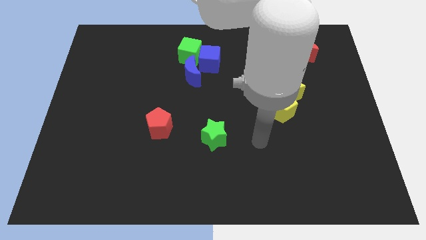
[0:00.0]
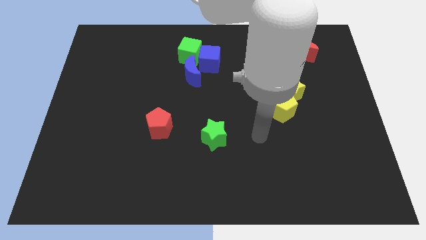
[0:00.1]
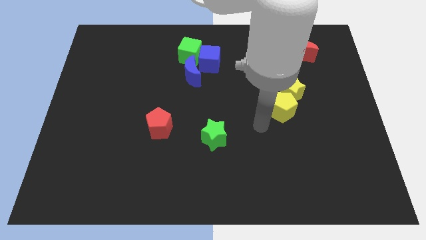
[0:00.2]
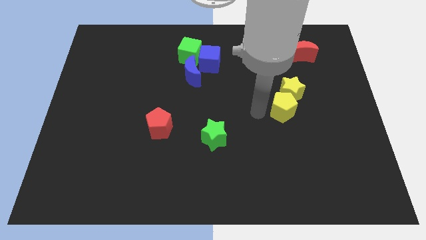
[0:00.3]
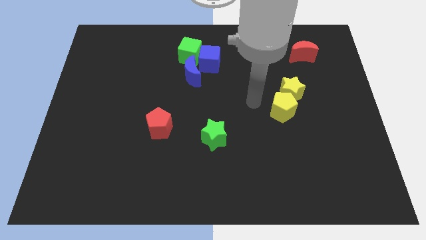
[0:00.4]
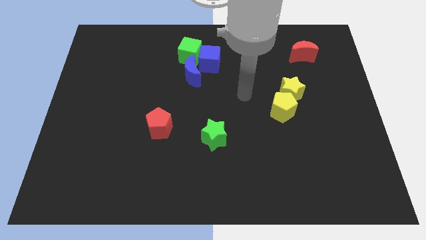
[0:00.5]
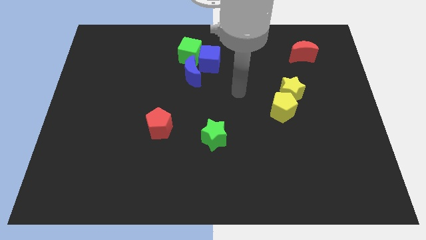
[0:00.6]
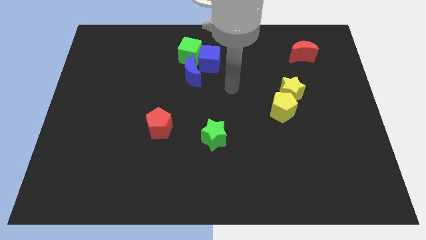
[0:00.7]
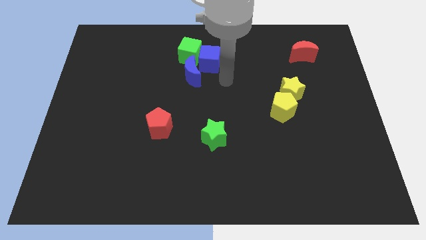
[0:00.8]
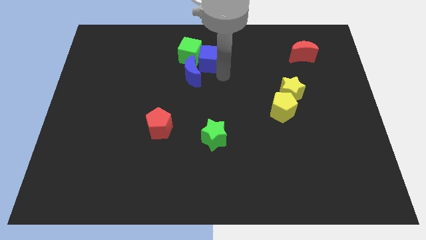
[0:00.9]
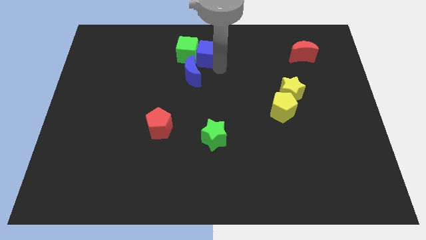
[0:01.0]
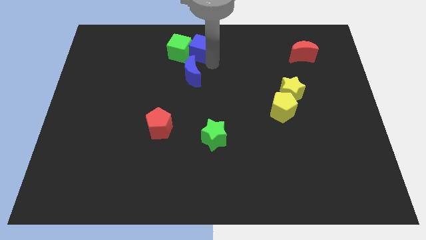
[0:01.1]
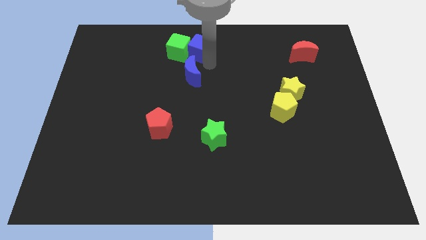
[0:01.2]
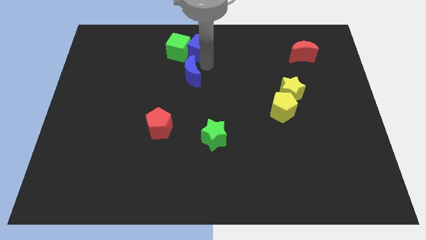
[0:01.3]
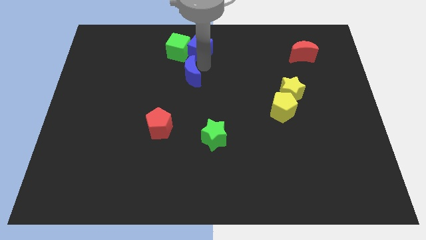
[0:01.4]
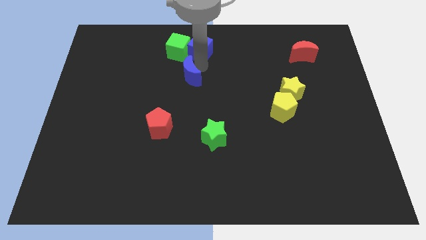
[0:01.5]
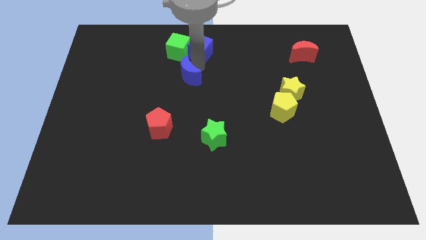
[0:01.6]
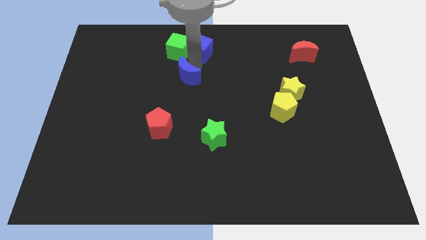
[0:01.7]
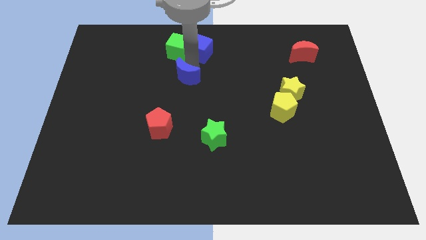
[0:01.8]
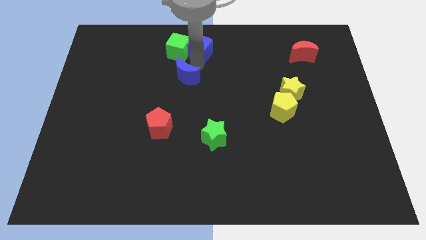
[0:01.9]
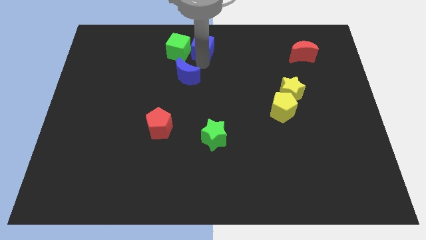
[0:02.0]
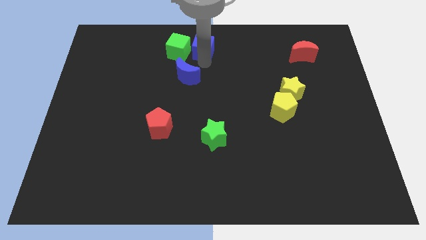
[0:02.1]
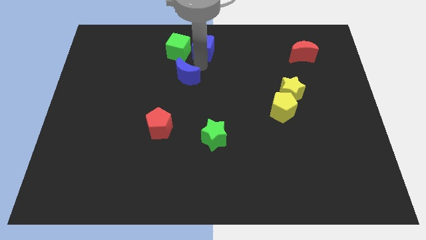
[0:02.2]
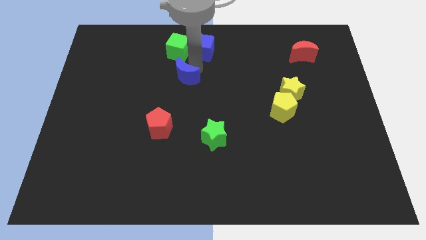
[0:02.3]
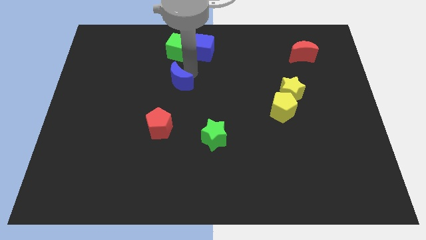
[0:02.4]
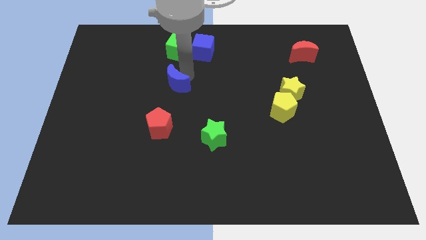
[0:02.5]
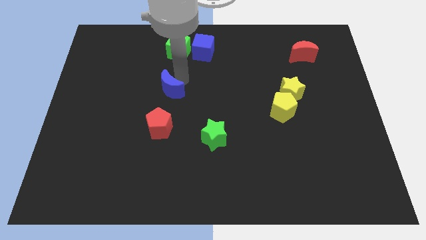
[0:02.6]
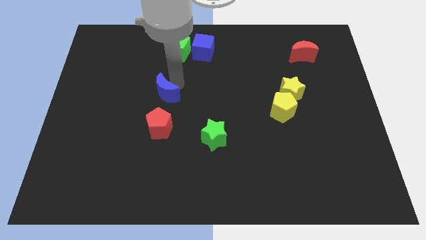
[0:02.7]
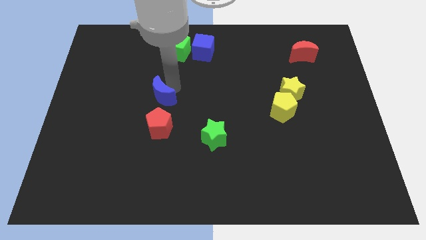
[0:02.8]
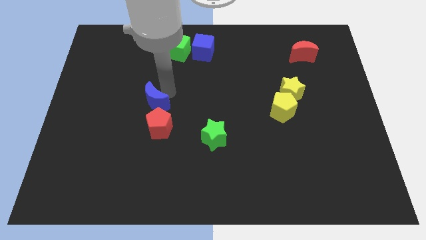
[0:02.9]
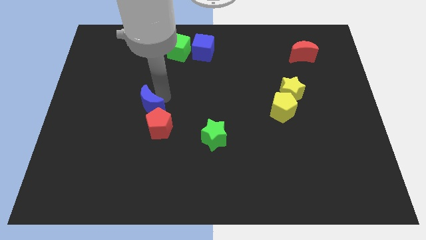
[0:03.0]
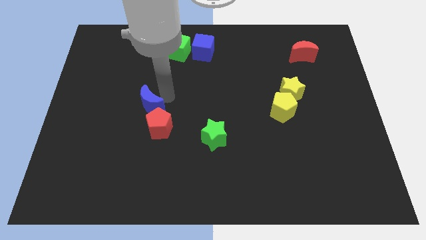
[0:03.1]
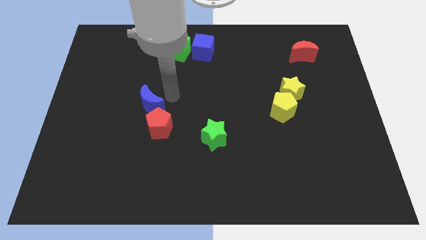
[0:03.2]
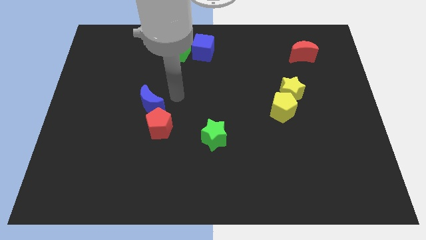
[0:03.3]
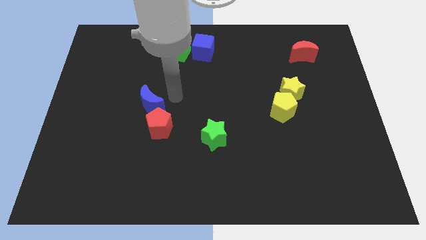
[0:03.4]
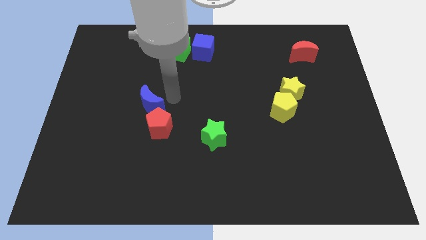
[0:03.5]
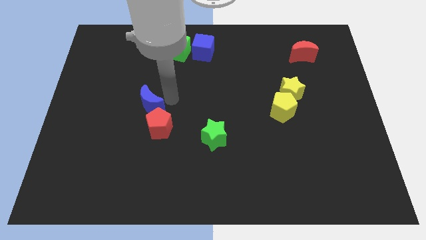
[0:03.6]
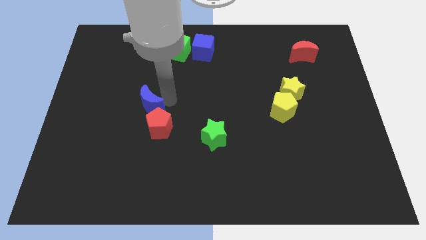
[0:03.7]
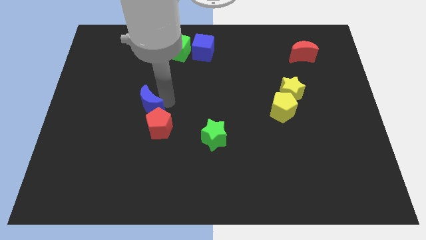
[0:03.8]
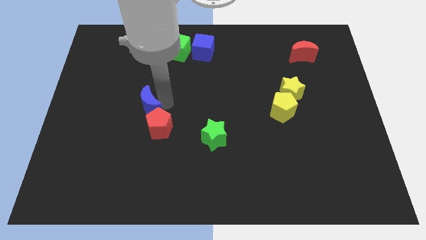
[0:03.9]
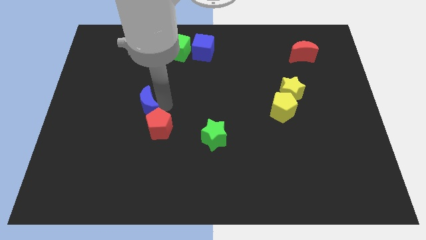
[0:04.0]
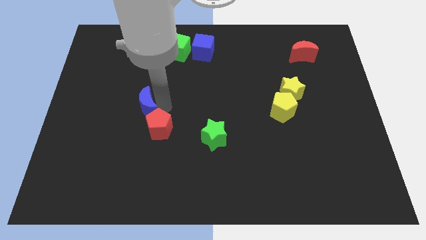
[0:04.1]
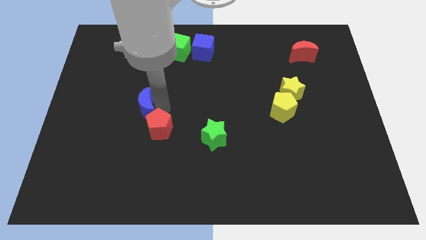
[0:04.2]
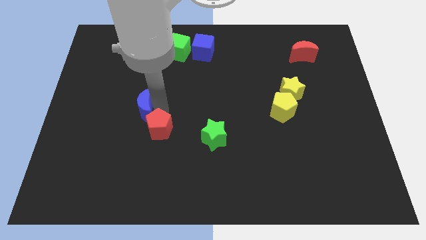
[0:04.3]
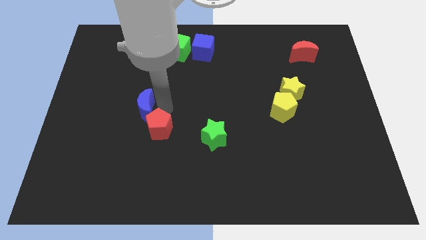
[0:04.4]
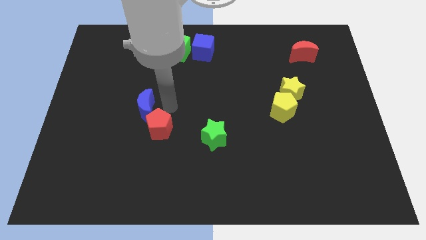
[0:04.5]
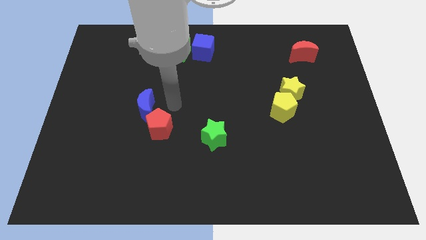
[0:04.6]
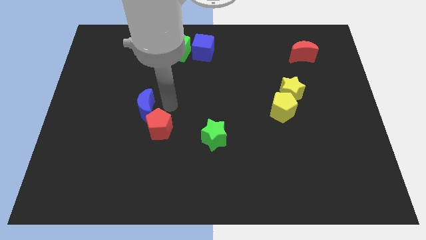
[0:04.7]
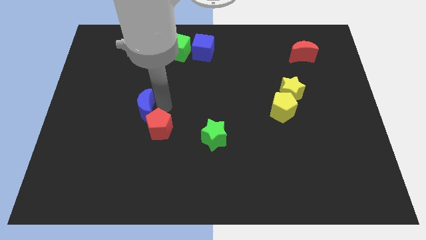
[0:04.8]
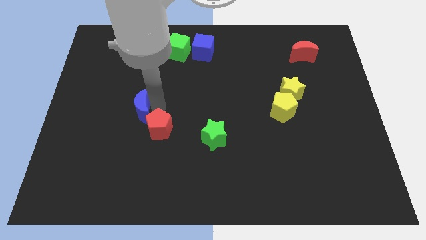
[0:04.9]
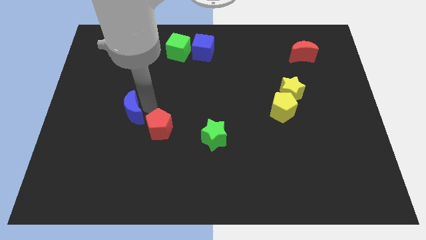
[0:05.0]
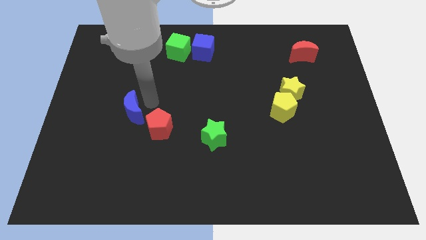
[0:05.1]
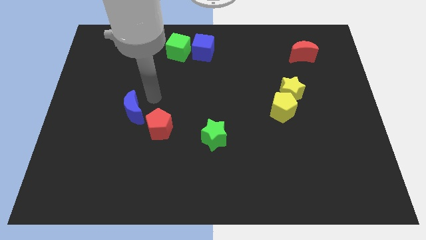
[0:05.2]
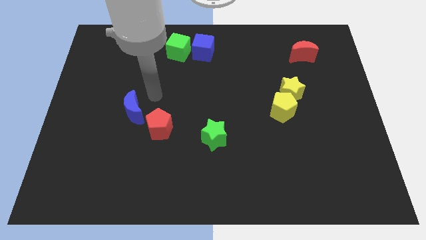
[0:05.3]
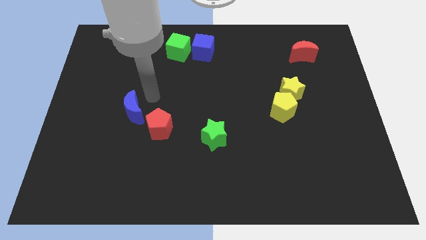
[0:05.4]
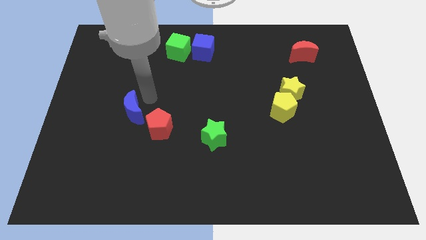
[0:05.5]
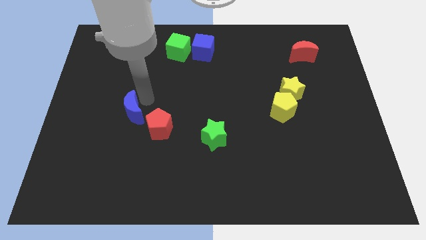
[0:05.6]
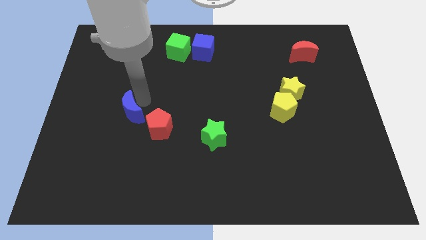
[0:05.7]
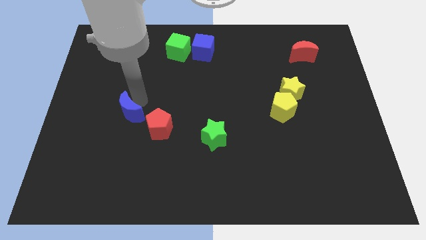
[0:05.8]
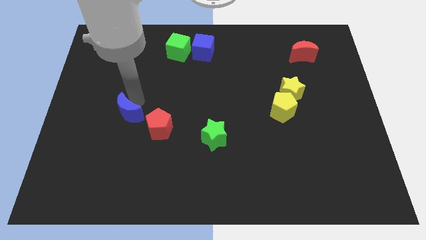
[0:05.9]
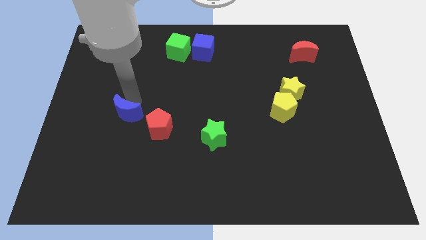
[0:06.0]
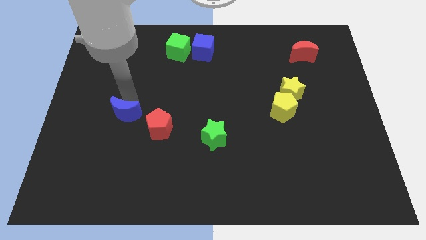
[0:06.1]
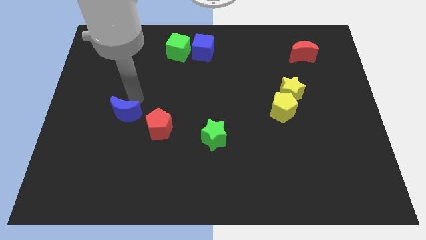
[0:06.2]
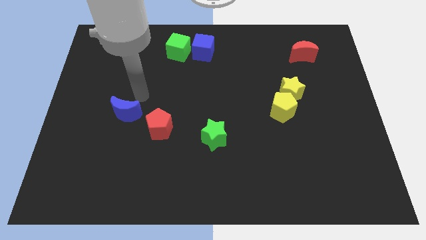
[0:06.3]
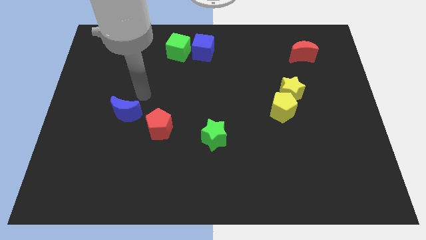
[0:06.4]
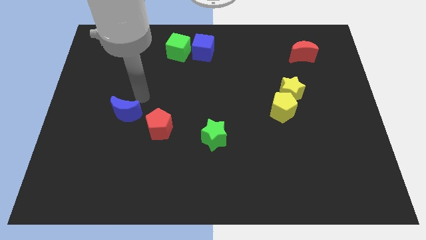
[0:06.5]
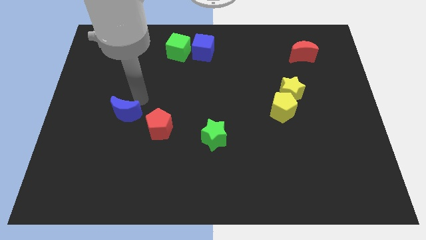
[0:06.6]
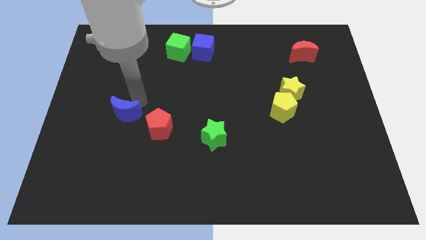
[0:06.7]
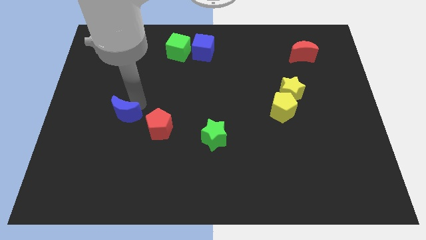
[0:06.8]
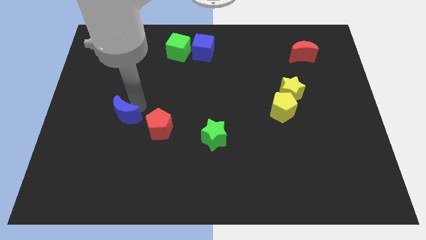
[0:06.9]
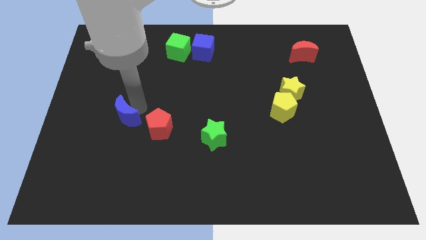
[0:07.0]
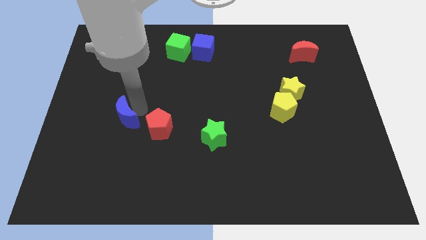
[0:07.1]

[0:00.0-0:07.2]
slide the blue moon downwards and left
